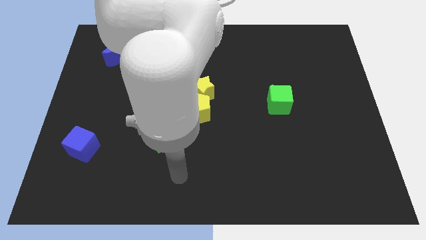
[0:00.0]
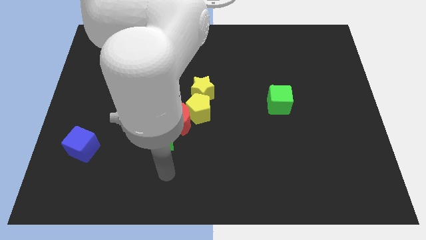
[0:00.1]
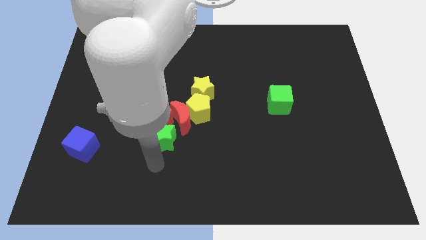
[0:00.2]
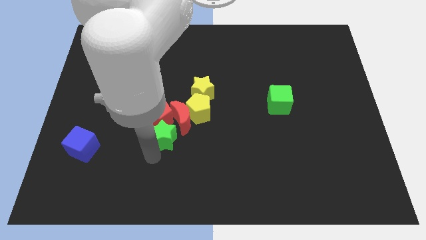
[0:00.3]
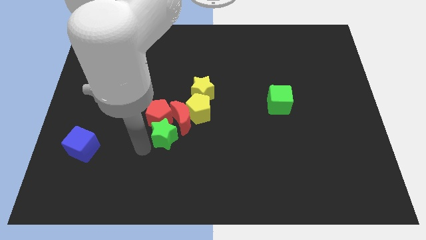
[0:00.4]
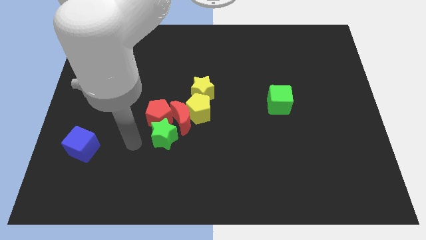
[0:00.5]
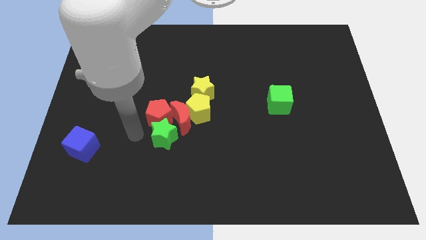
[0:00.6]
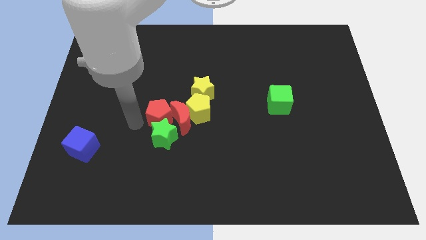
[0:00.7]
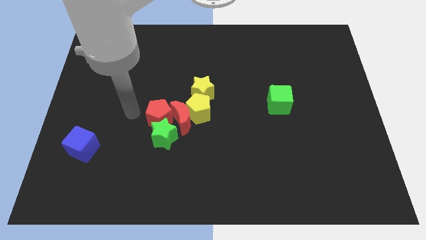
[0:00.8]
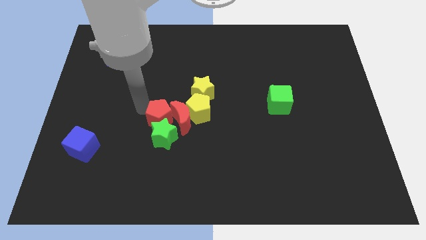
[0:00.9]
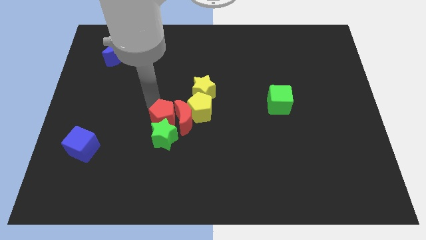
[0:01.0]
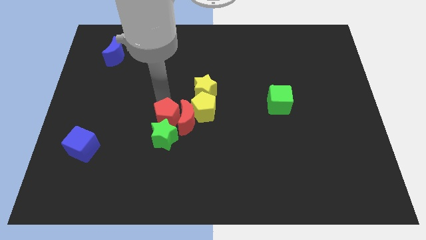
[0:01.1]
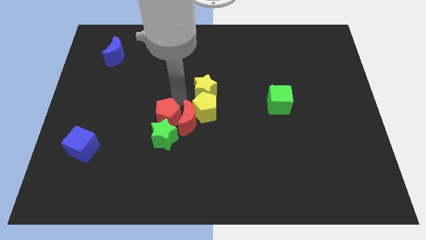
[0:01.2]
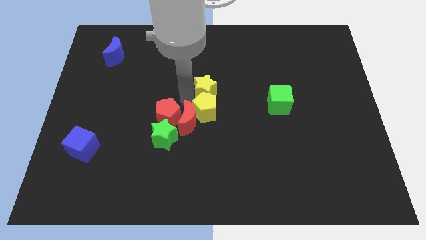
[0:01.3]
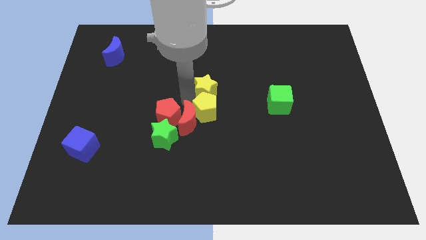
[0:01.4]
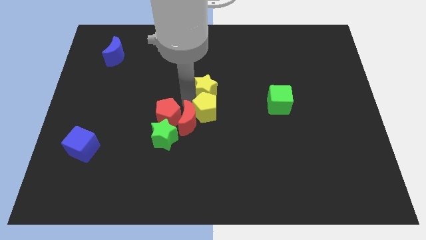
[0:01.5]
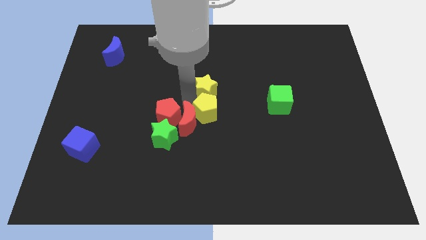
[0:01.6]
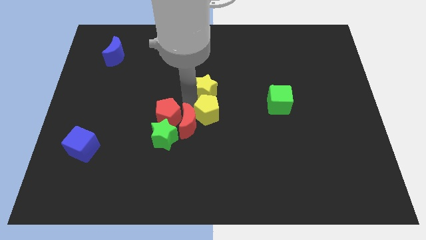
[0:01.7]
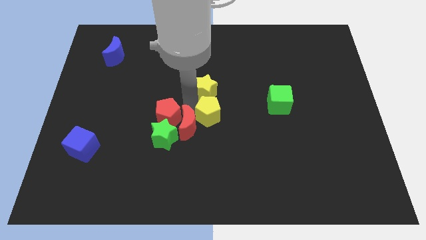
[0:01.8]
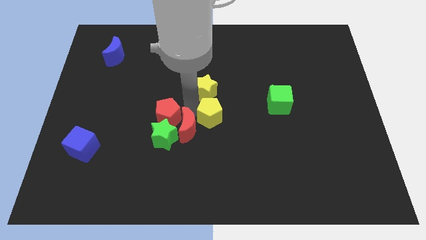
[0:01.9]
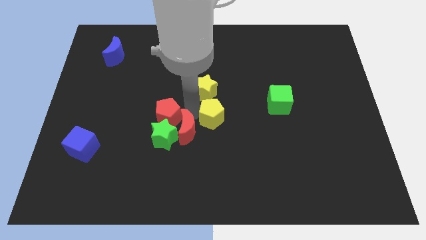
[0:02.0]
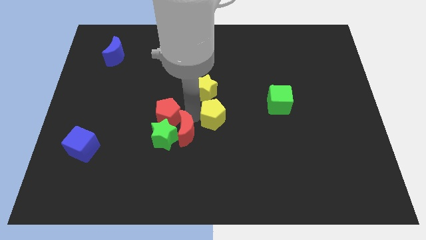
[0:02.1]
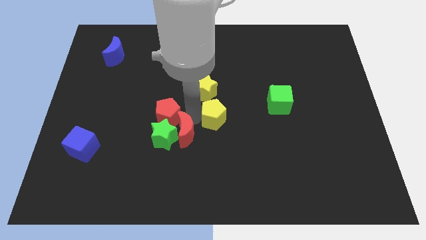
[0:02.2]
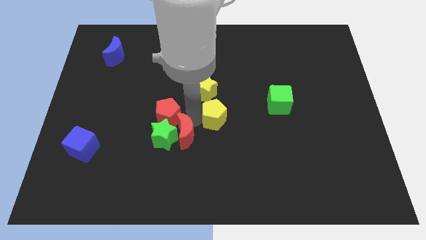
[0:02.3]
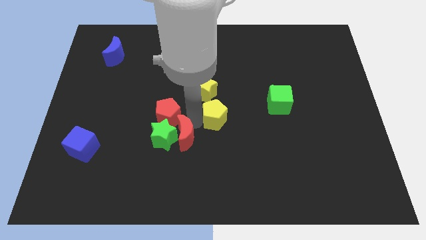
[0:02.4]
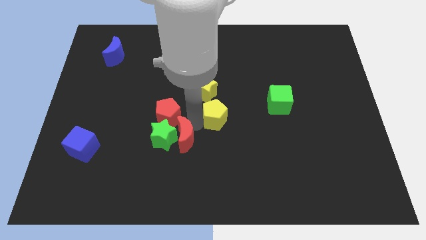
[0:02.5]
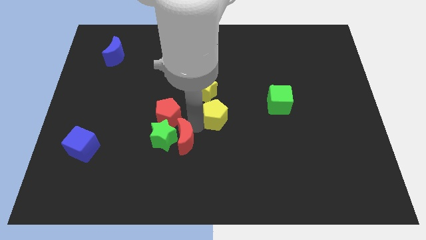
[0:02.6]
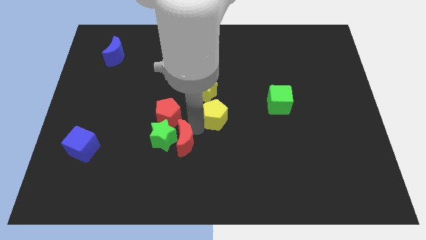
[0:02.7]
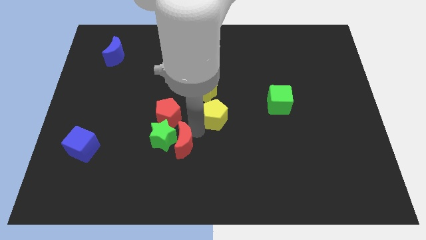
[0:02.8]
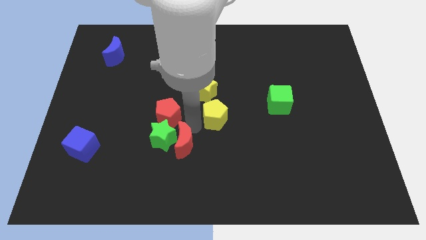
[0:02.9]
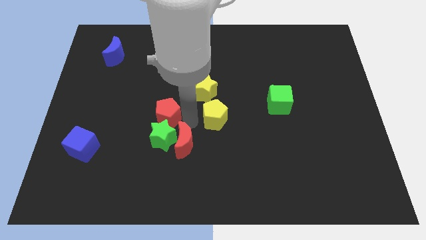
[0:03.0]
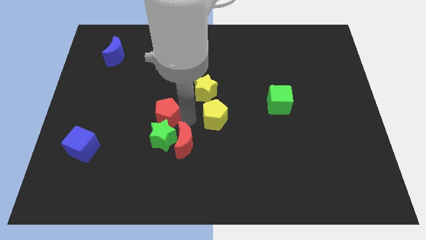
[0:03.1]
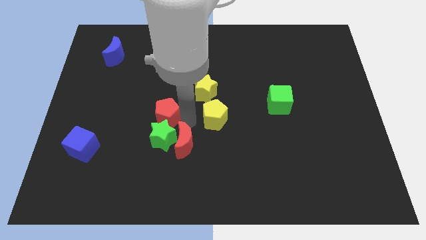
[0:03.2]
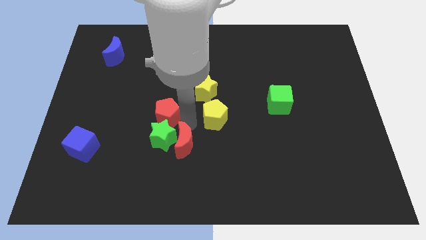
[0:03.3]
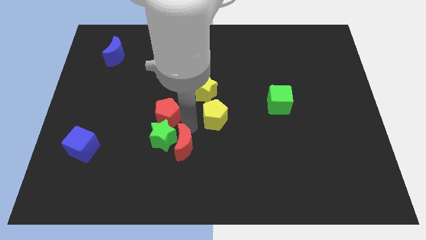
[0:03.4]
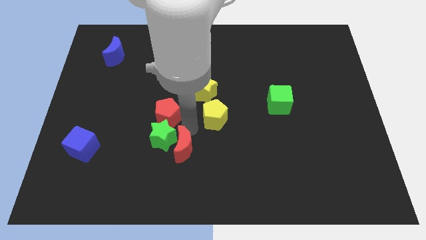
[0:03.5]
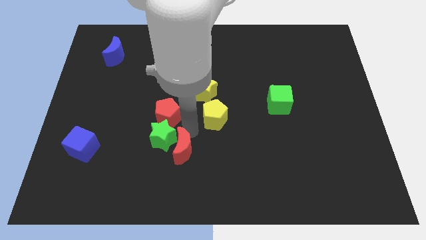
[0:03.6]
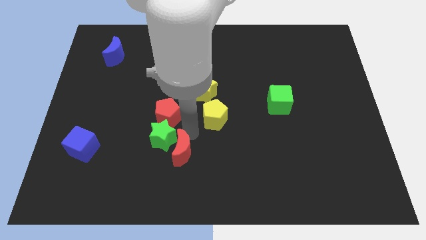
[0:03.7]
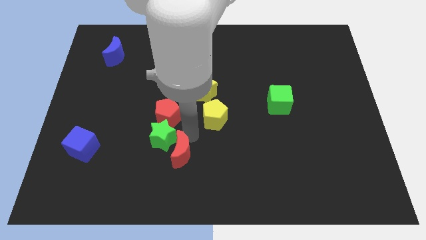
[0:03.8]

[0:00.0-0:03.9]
move the red moon away from the group

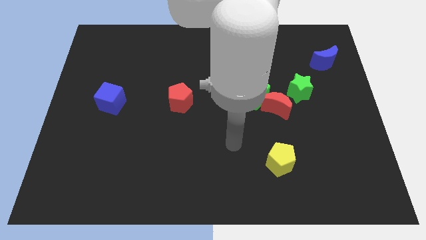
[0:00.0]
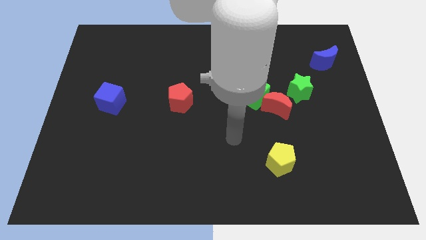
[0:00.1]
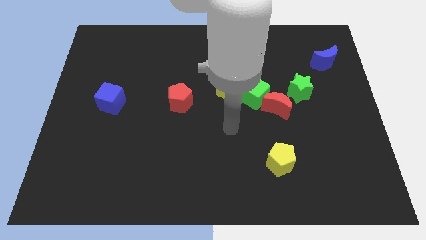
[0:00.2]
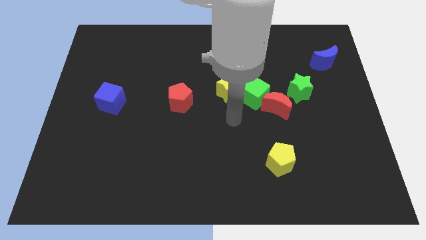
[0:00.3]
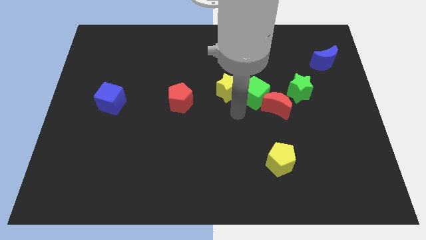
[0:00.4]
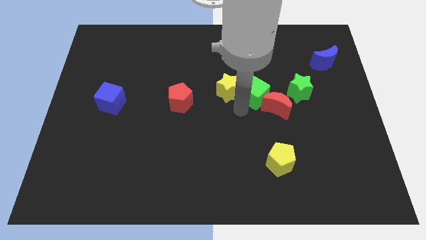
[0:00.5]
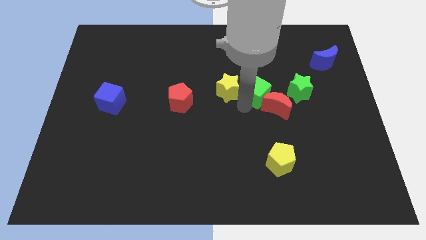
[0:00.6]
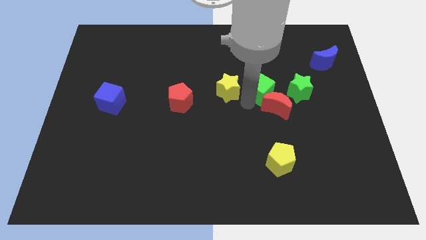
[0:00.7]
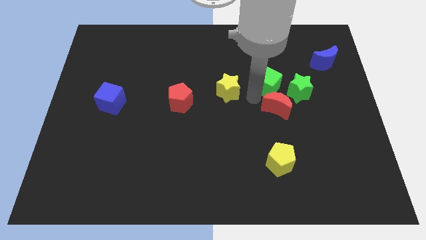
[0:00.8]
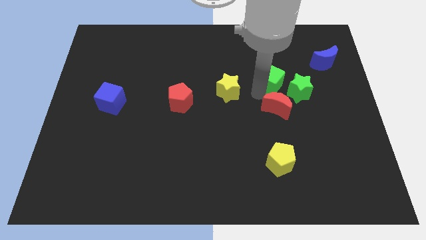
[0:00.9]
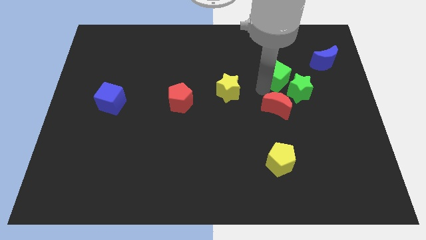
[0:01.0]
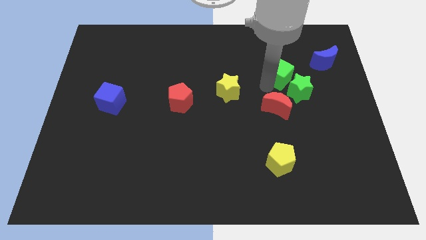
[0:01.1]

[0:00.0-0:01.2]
separate the green cube from the red moon and yellow star

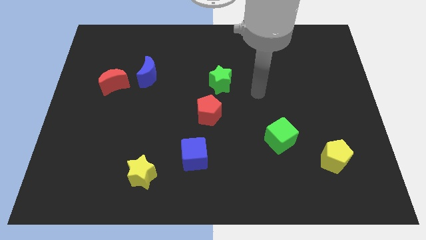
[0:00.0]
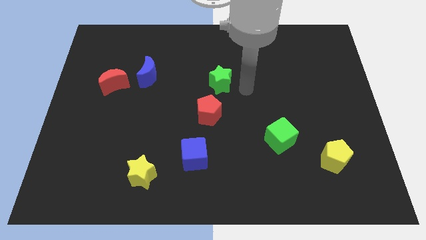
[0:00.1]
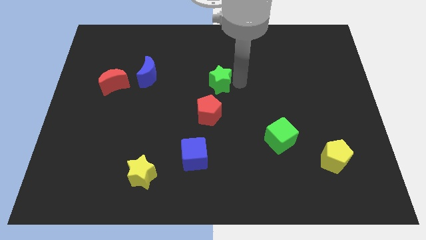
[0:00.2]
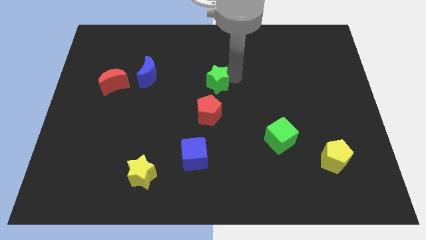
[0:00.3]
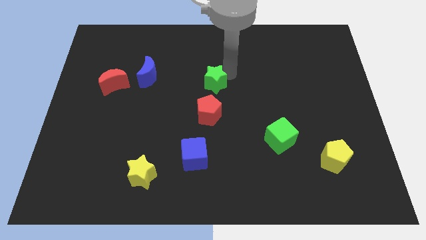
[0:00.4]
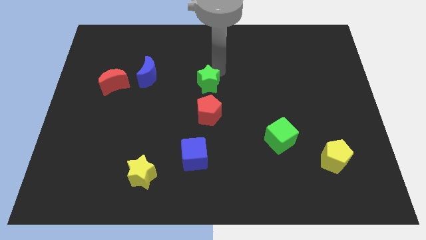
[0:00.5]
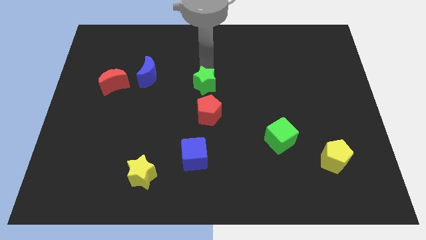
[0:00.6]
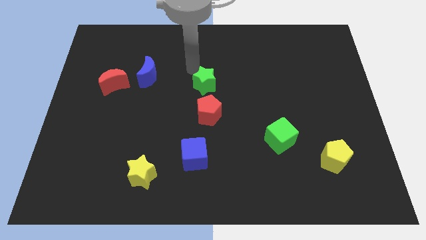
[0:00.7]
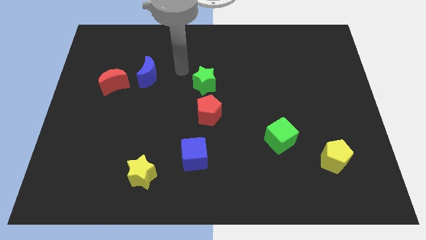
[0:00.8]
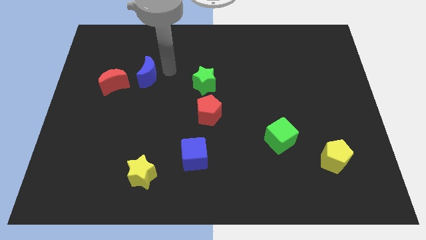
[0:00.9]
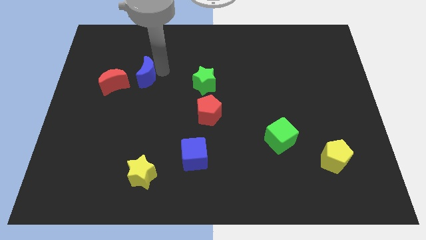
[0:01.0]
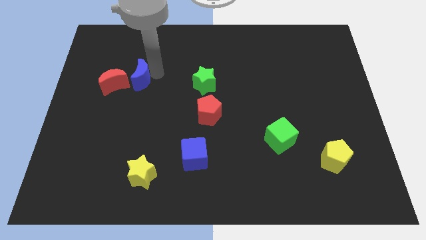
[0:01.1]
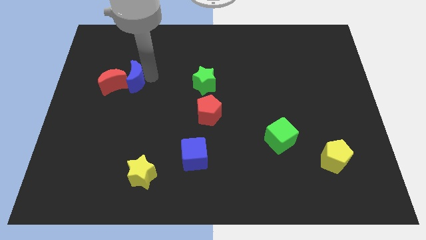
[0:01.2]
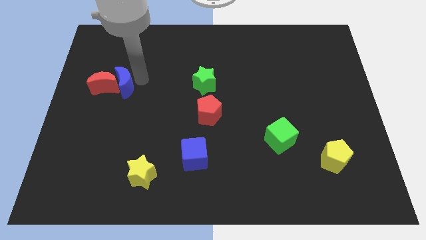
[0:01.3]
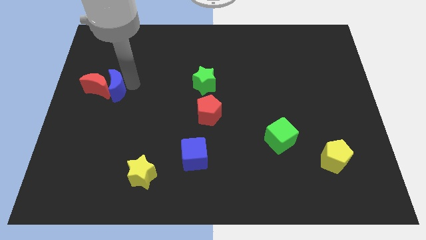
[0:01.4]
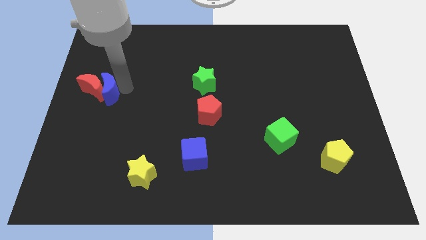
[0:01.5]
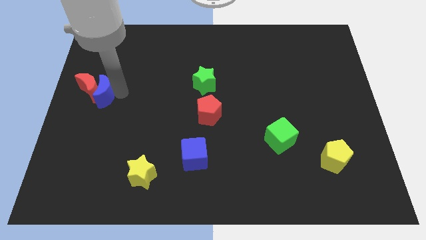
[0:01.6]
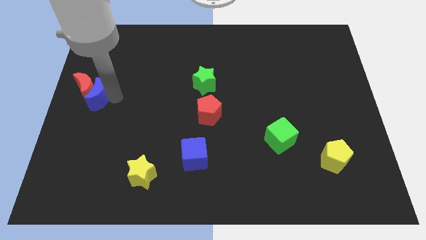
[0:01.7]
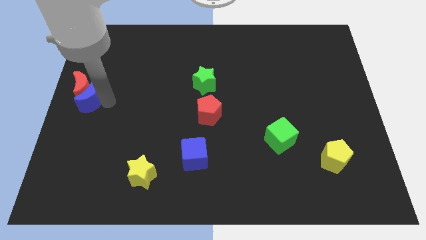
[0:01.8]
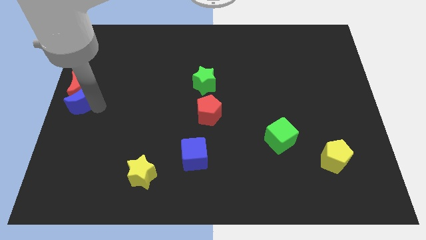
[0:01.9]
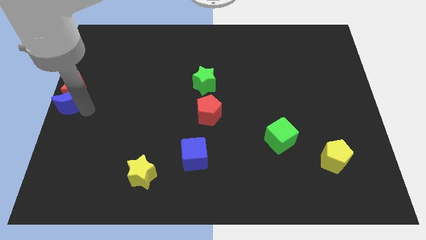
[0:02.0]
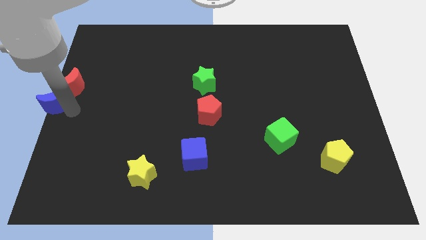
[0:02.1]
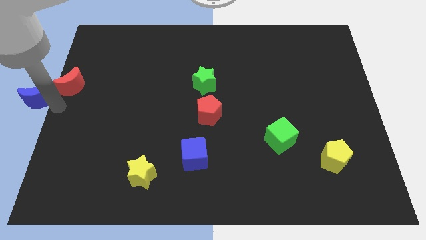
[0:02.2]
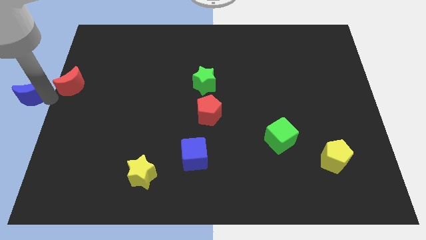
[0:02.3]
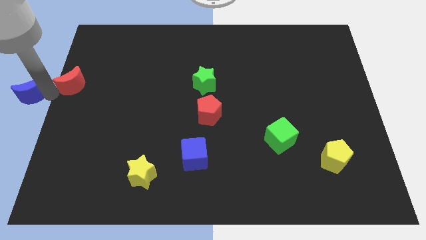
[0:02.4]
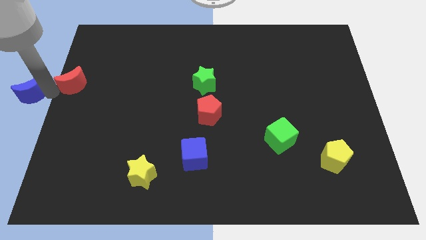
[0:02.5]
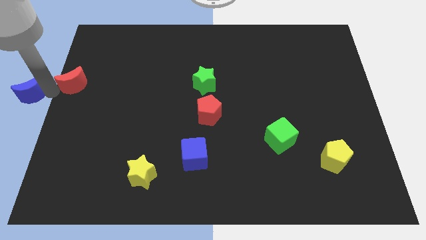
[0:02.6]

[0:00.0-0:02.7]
move the red moon away from the blue moon

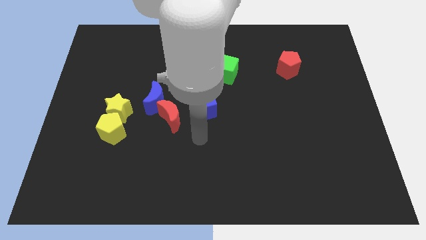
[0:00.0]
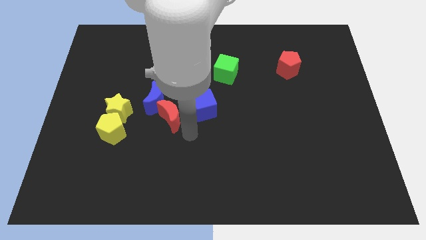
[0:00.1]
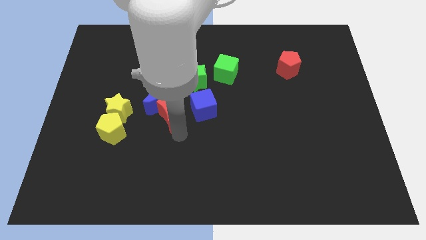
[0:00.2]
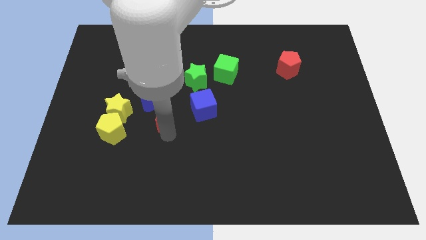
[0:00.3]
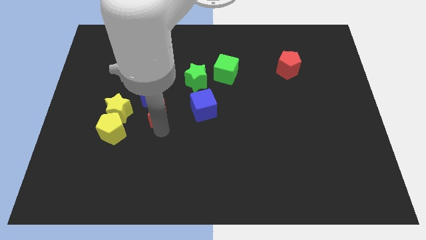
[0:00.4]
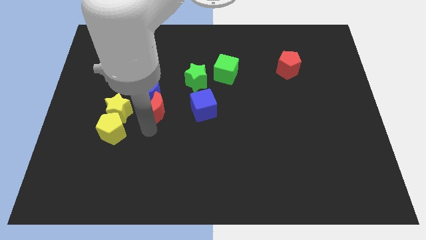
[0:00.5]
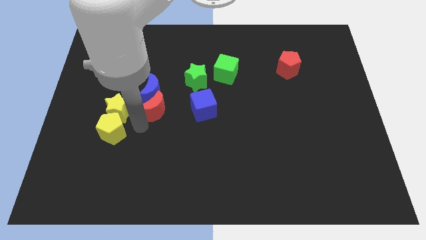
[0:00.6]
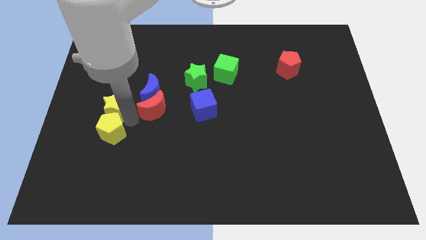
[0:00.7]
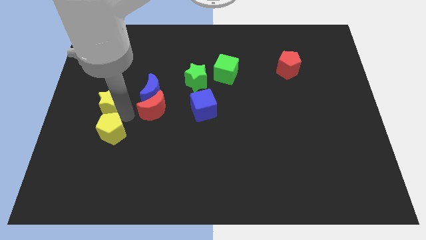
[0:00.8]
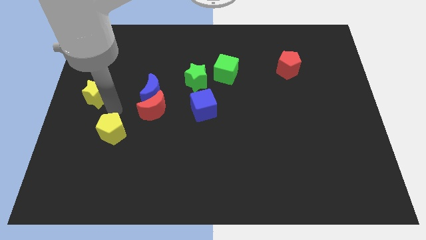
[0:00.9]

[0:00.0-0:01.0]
separate the yellow pentagon from the yellow star

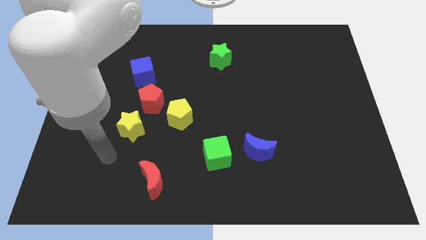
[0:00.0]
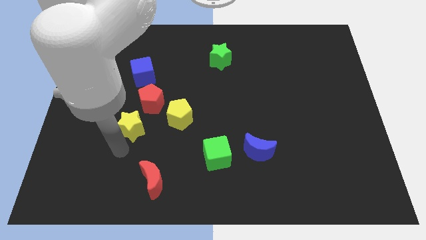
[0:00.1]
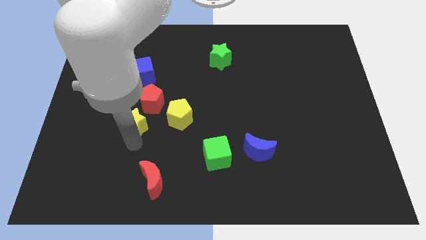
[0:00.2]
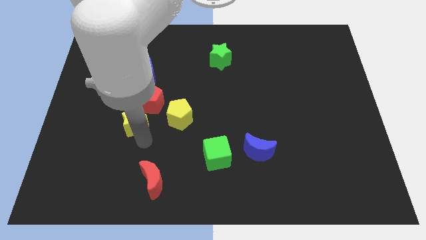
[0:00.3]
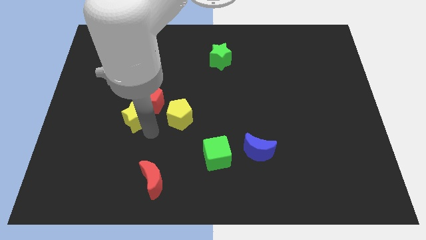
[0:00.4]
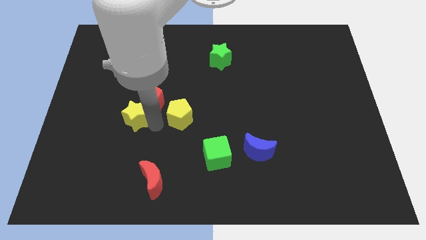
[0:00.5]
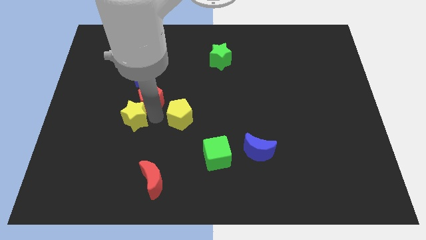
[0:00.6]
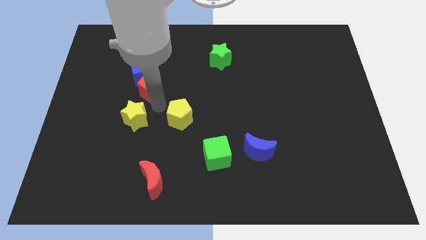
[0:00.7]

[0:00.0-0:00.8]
separate the yellow pentagon from the red pentagon
